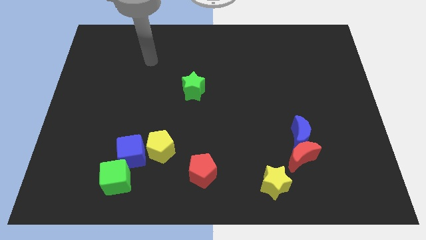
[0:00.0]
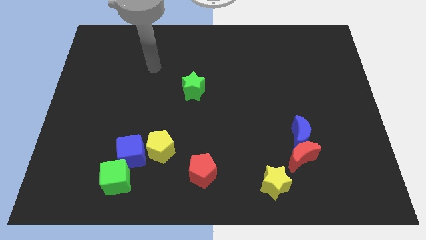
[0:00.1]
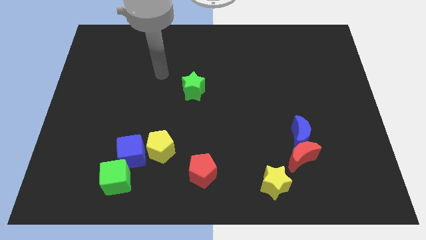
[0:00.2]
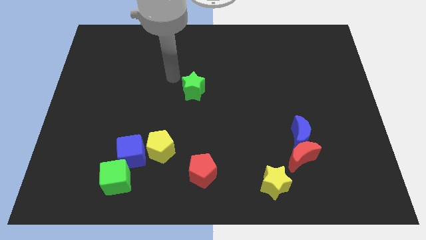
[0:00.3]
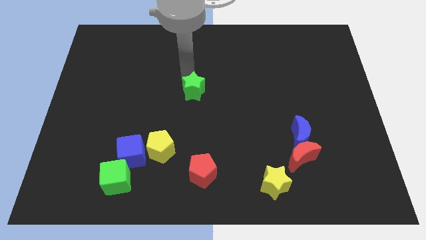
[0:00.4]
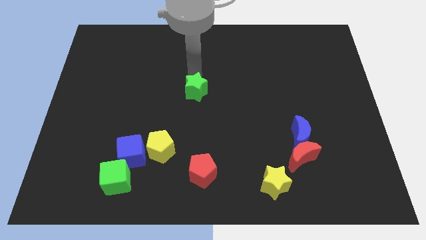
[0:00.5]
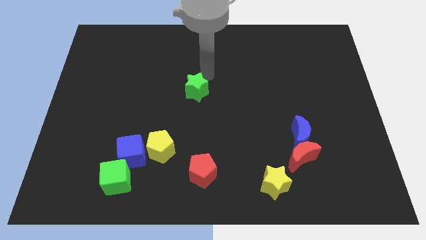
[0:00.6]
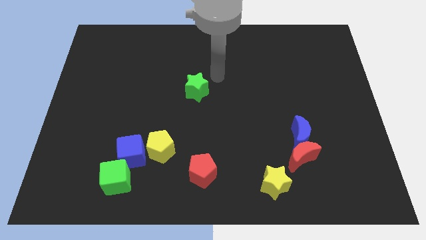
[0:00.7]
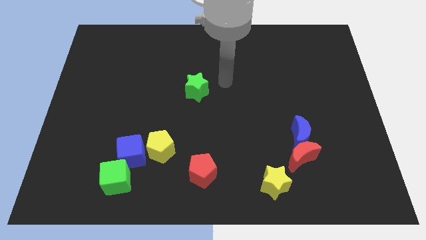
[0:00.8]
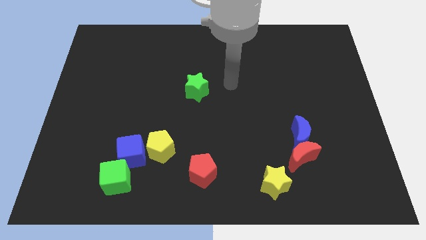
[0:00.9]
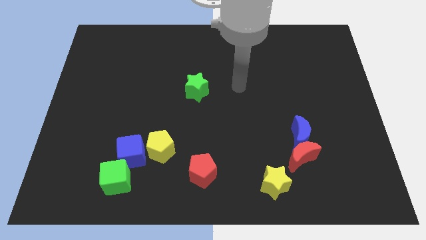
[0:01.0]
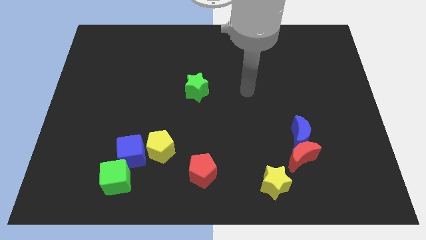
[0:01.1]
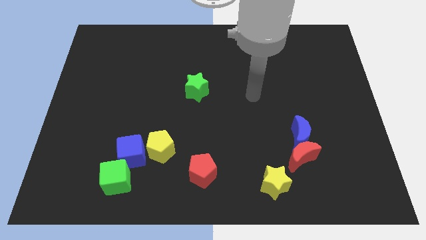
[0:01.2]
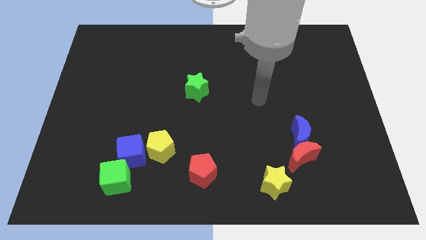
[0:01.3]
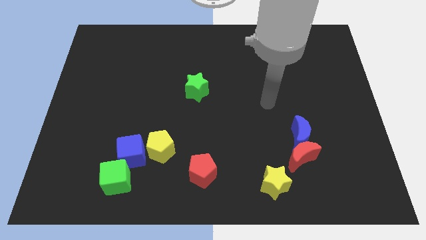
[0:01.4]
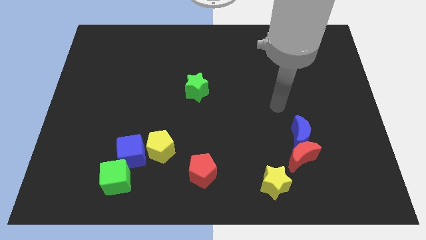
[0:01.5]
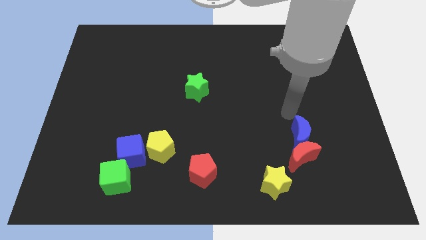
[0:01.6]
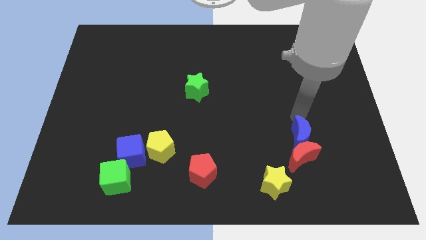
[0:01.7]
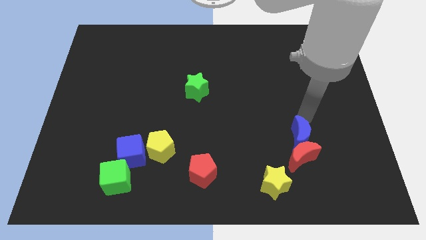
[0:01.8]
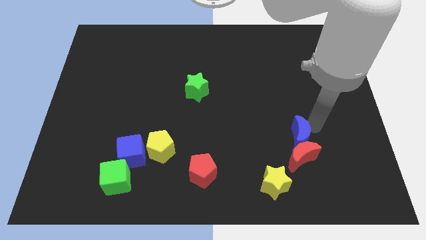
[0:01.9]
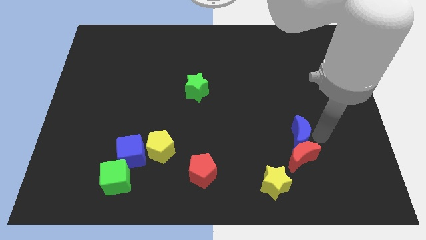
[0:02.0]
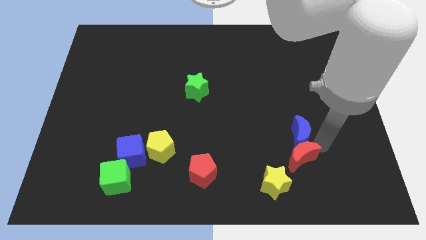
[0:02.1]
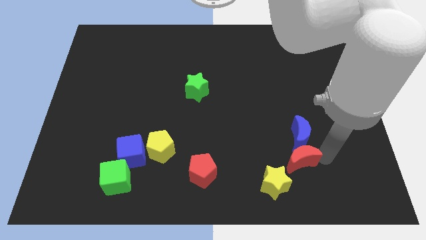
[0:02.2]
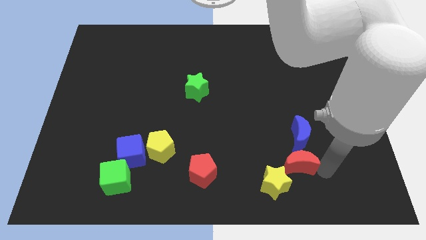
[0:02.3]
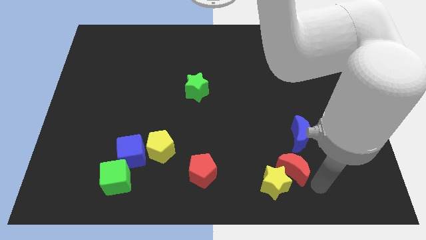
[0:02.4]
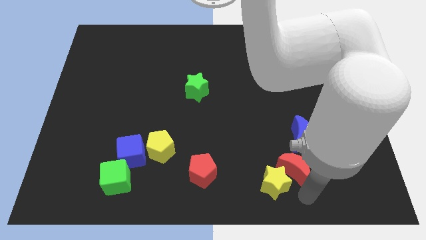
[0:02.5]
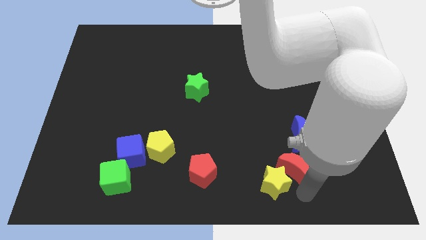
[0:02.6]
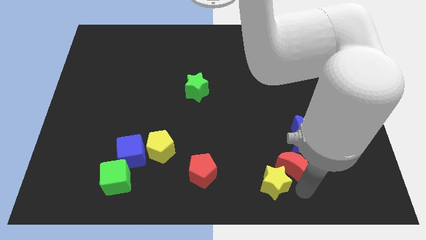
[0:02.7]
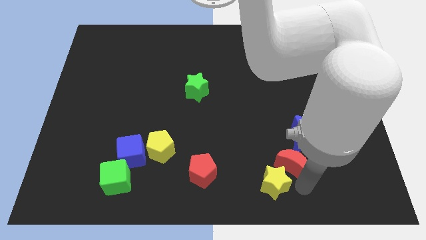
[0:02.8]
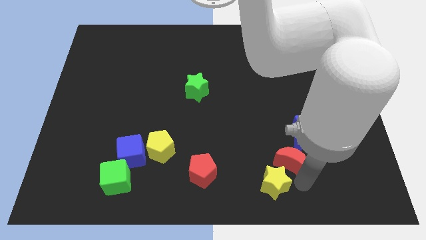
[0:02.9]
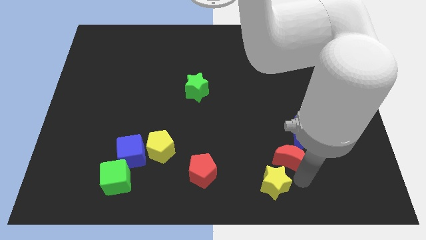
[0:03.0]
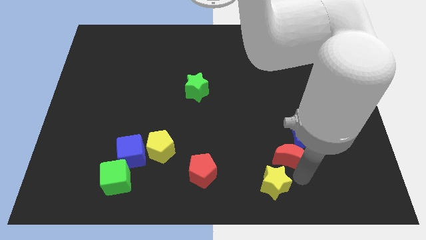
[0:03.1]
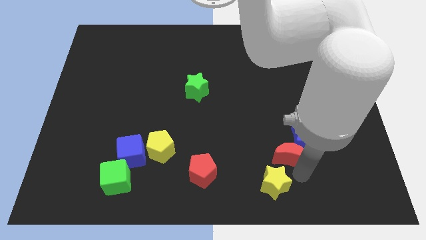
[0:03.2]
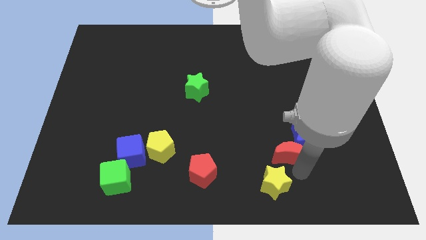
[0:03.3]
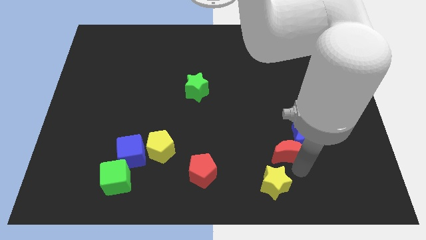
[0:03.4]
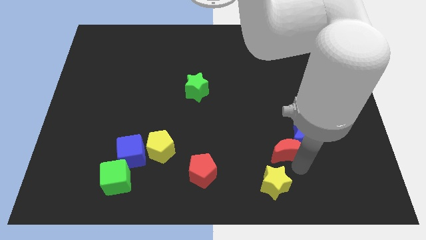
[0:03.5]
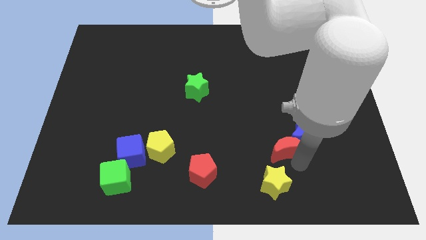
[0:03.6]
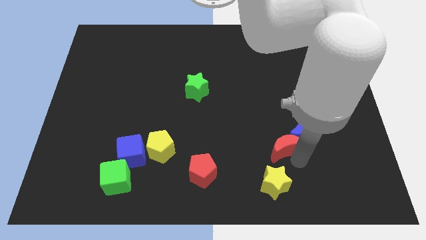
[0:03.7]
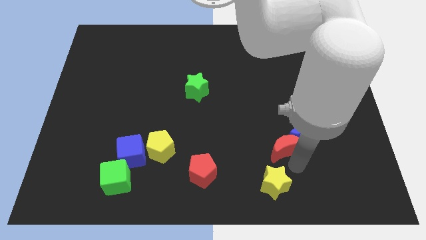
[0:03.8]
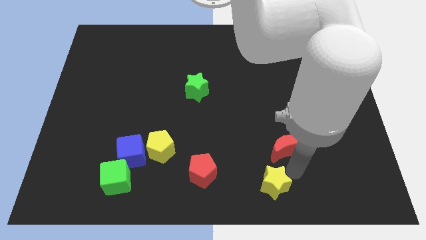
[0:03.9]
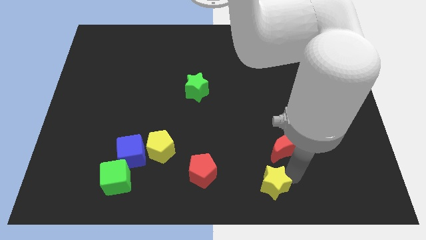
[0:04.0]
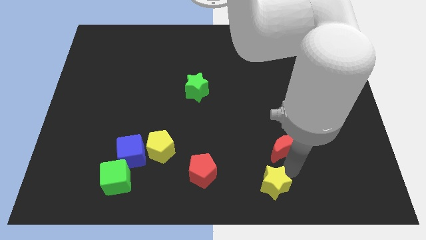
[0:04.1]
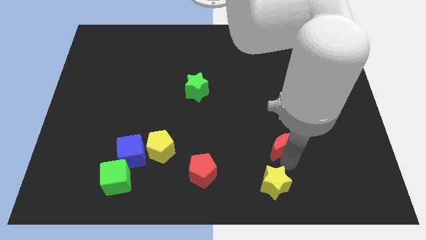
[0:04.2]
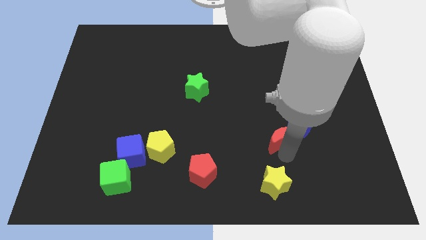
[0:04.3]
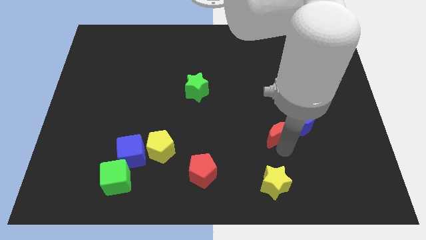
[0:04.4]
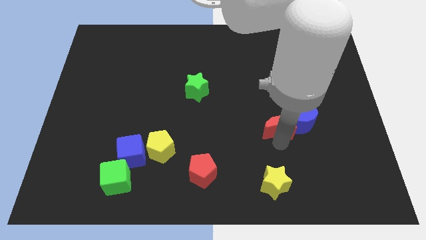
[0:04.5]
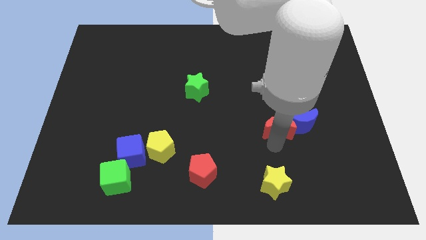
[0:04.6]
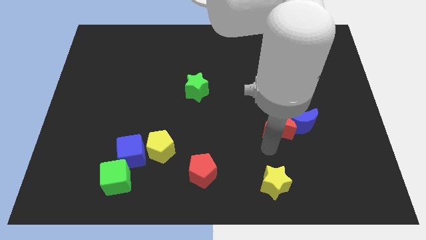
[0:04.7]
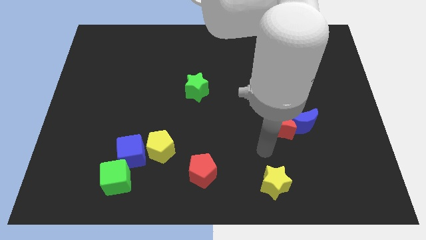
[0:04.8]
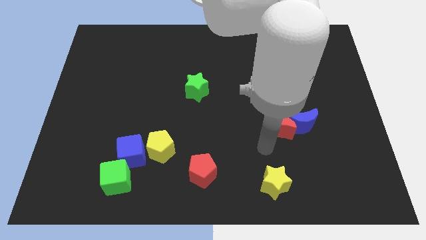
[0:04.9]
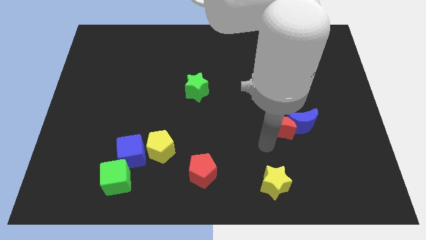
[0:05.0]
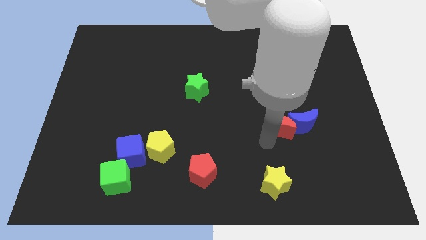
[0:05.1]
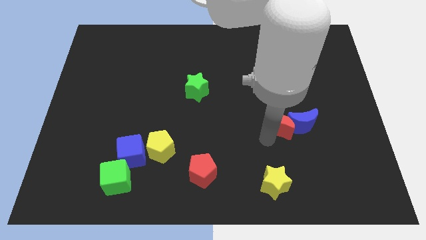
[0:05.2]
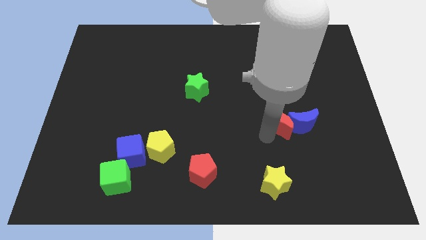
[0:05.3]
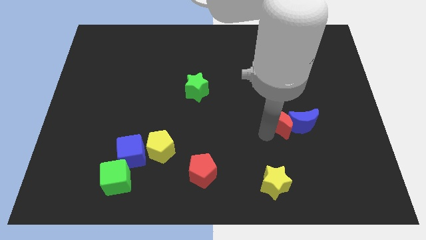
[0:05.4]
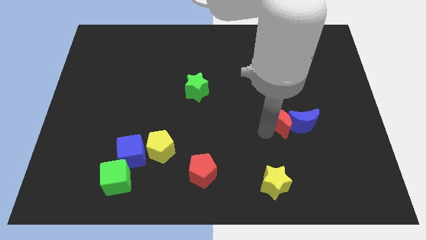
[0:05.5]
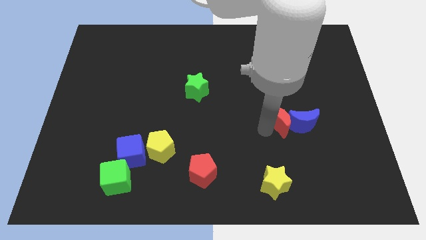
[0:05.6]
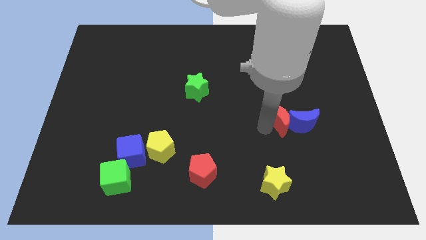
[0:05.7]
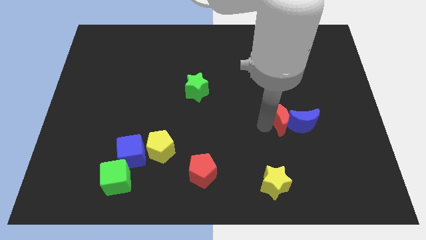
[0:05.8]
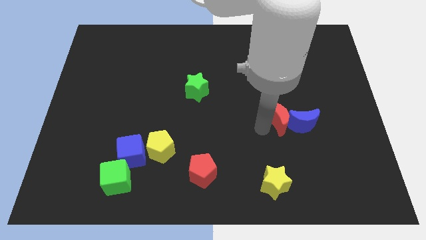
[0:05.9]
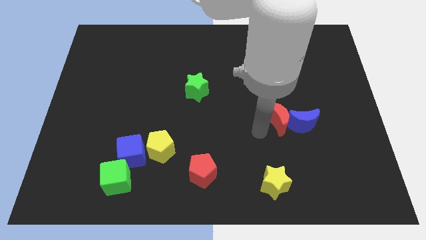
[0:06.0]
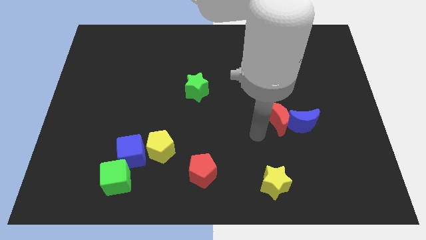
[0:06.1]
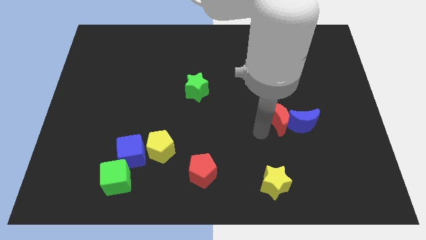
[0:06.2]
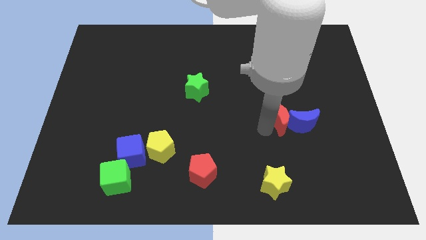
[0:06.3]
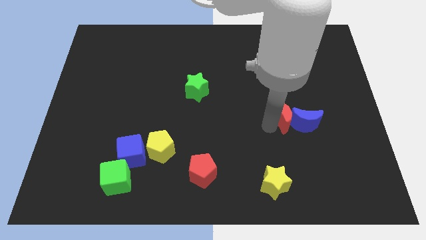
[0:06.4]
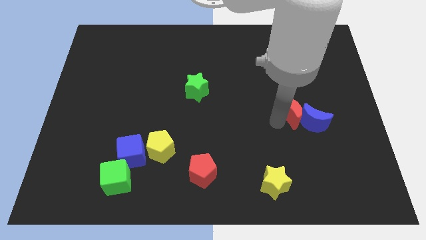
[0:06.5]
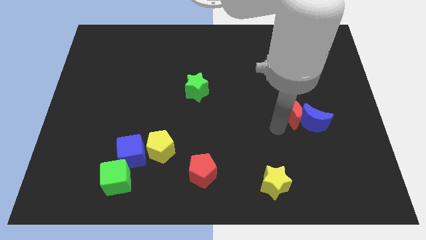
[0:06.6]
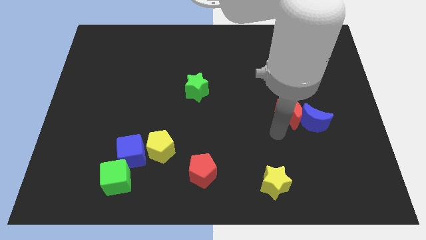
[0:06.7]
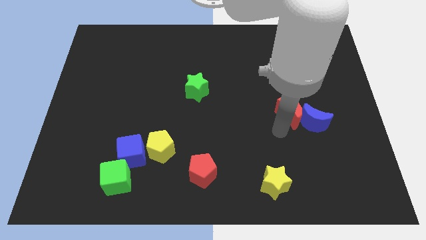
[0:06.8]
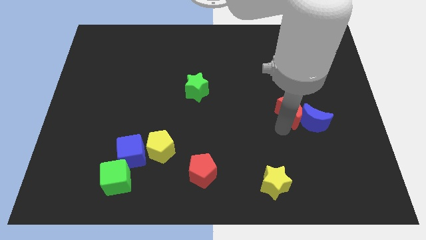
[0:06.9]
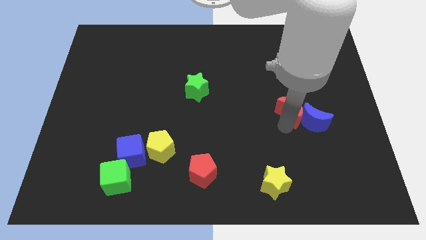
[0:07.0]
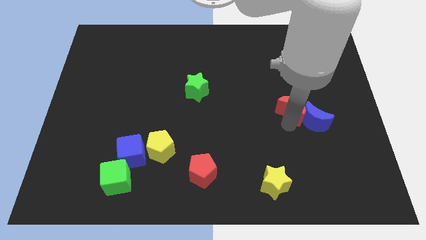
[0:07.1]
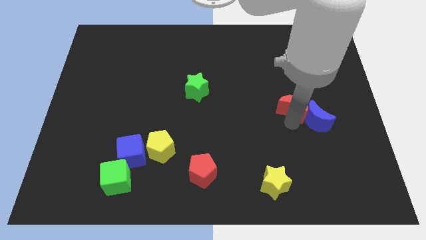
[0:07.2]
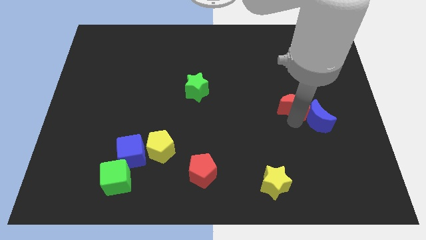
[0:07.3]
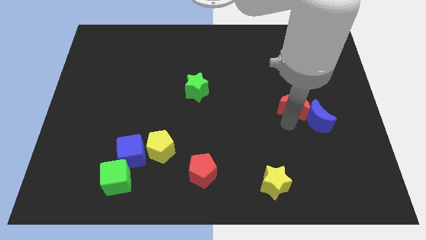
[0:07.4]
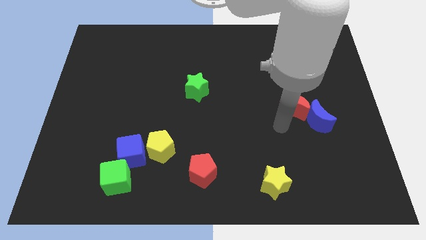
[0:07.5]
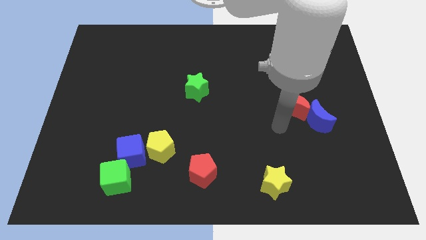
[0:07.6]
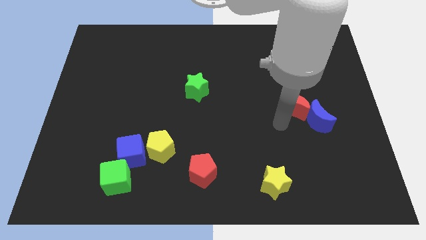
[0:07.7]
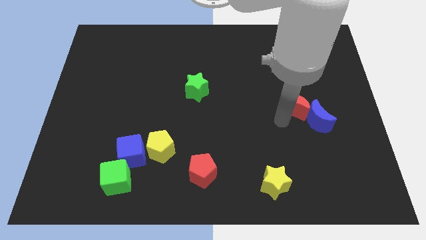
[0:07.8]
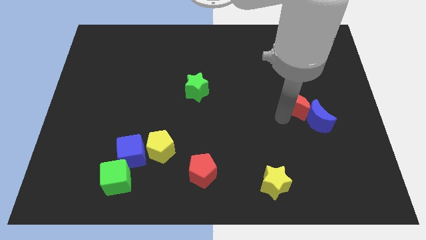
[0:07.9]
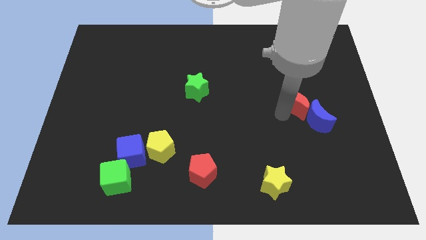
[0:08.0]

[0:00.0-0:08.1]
put the red moon to the top side of the blue moon
